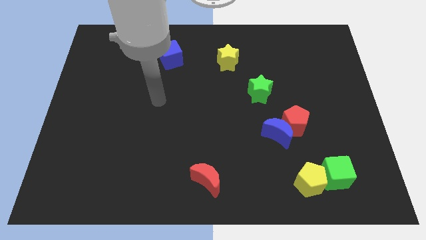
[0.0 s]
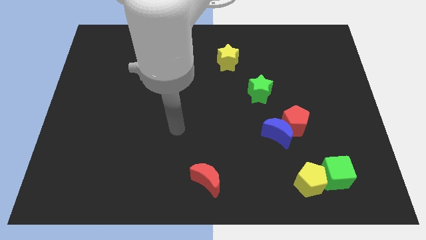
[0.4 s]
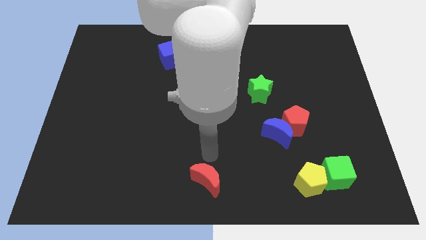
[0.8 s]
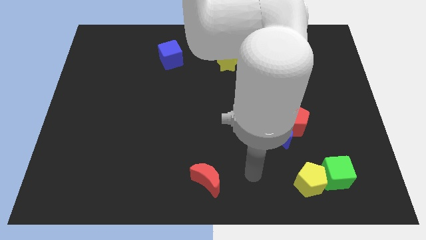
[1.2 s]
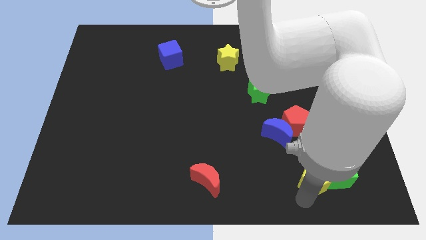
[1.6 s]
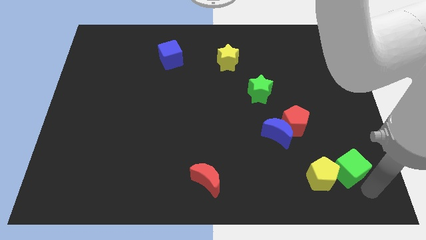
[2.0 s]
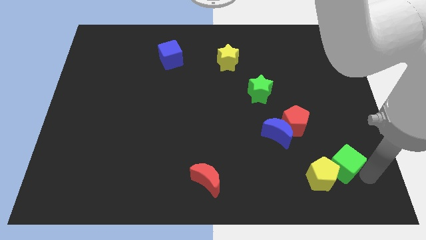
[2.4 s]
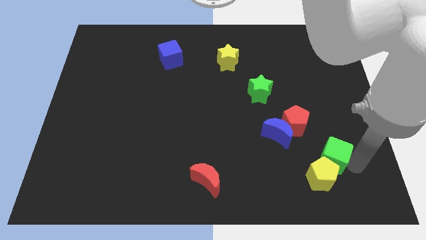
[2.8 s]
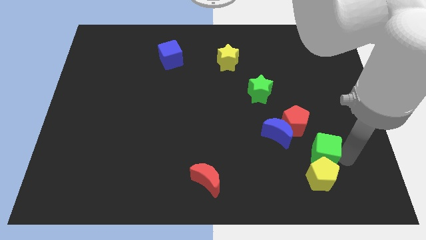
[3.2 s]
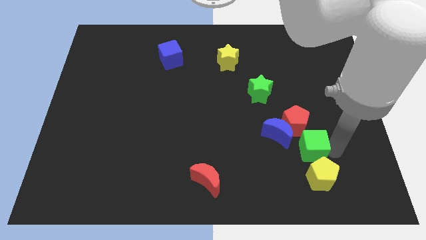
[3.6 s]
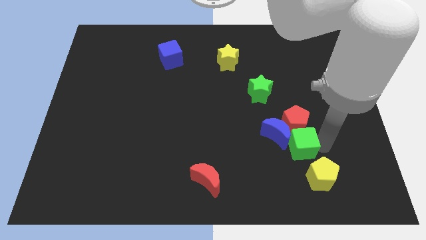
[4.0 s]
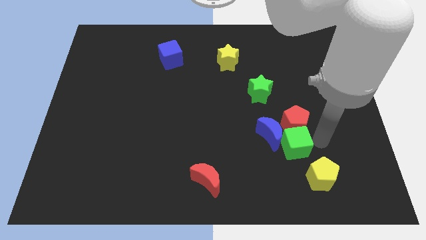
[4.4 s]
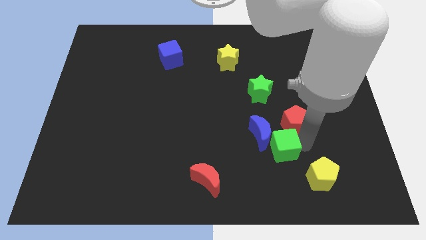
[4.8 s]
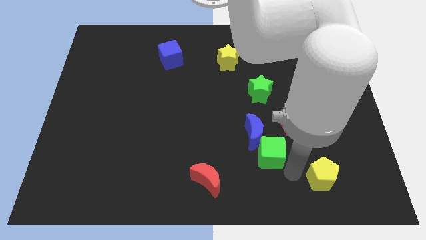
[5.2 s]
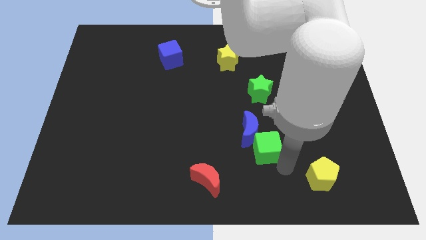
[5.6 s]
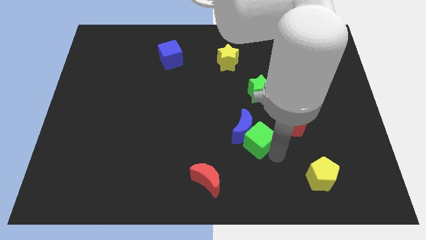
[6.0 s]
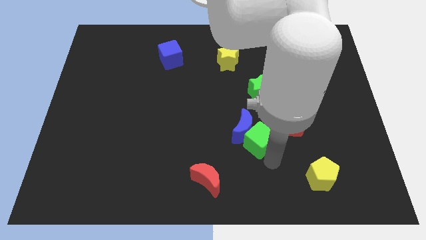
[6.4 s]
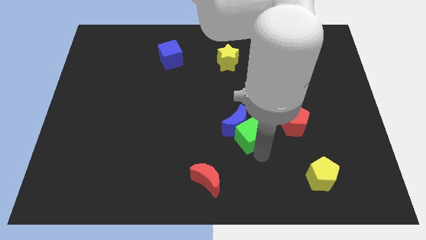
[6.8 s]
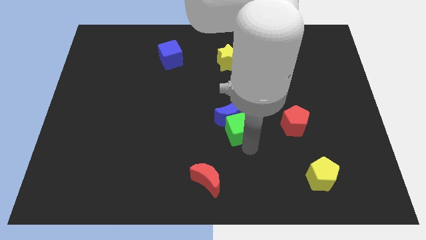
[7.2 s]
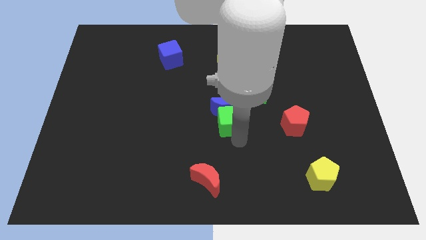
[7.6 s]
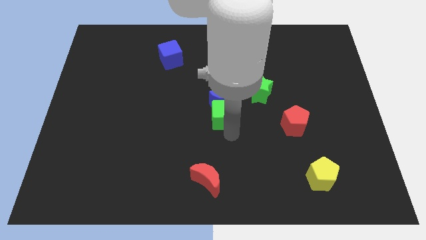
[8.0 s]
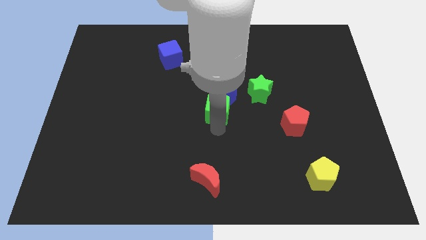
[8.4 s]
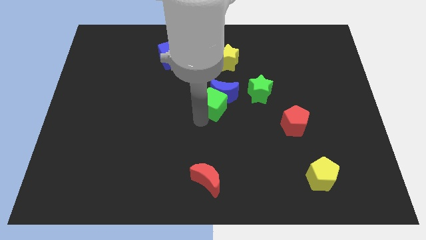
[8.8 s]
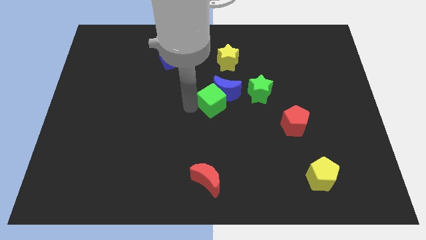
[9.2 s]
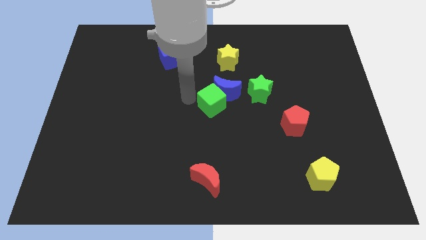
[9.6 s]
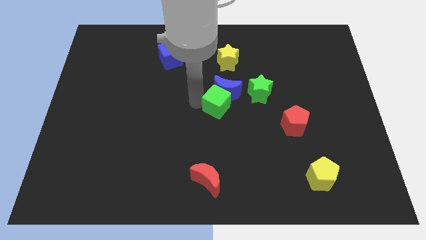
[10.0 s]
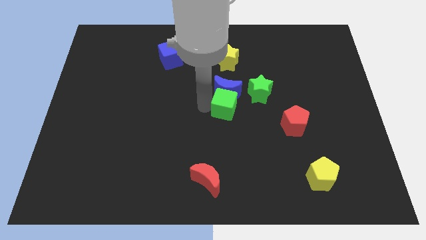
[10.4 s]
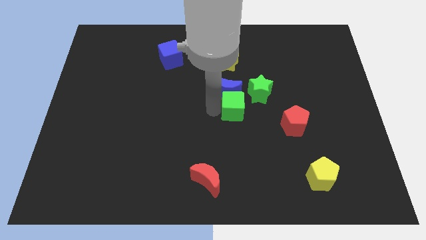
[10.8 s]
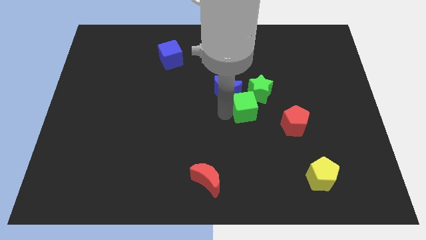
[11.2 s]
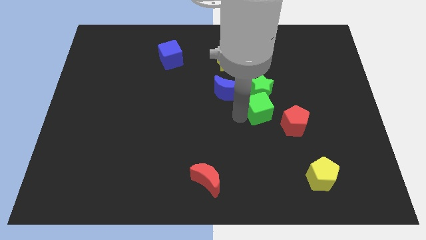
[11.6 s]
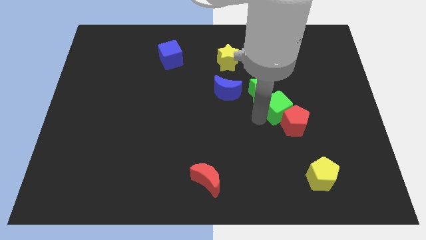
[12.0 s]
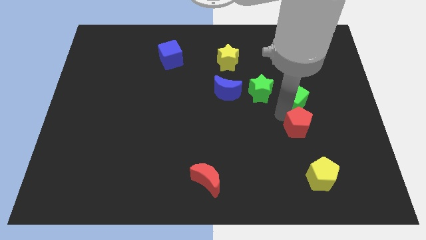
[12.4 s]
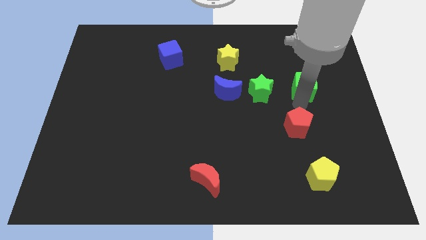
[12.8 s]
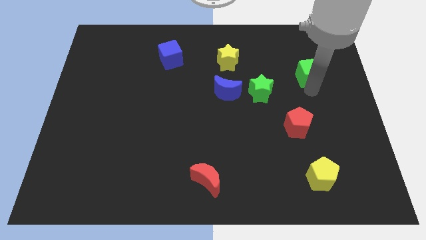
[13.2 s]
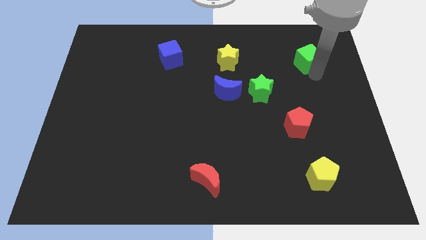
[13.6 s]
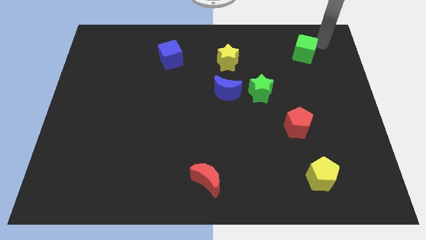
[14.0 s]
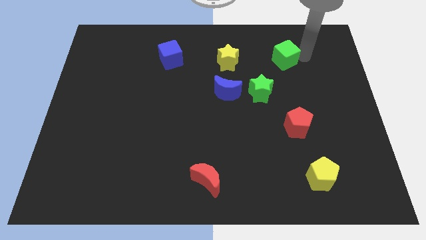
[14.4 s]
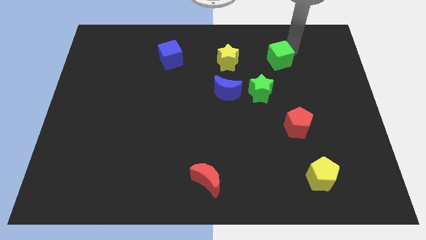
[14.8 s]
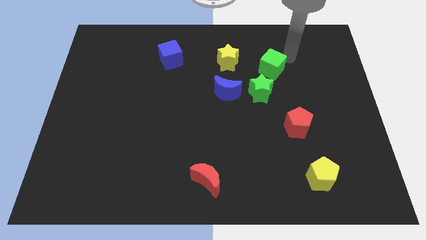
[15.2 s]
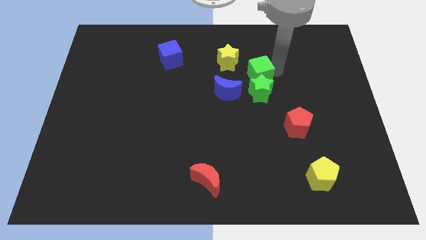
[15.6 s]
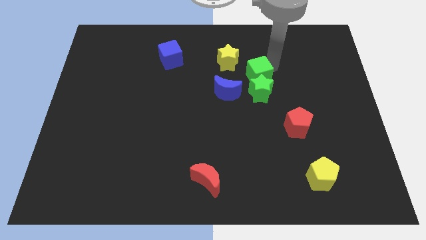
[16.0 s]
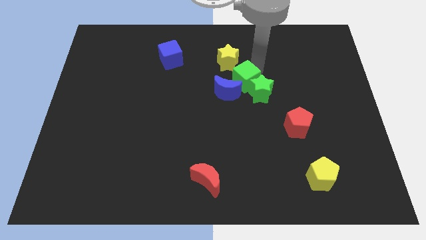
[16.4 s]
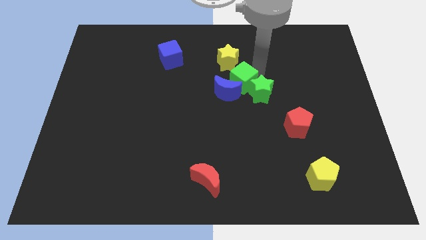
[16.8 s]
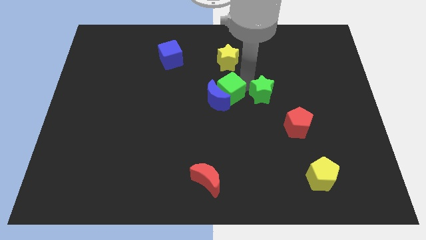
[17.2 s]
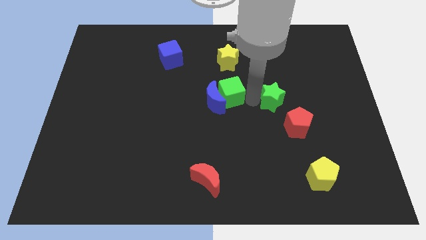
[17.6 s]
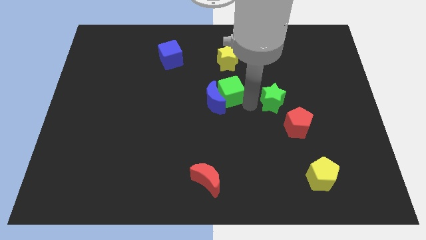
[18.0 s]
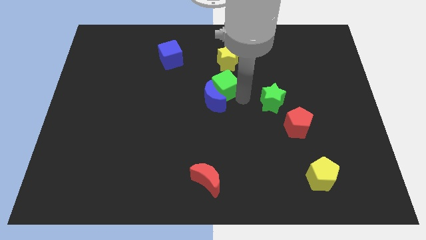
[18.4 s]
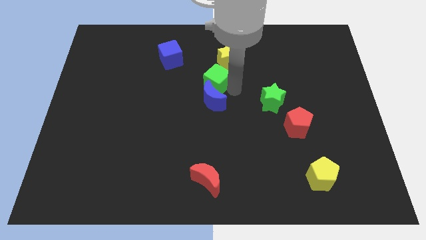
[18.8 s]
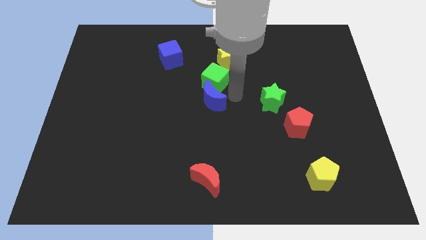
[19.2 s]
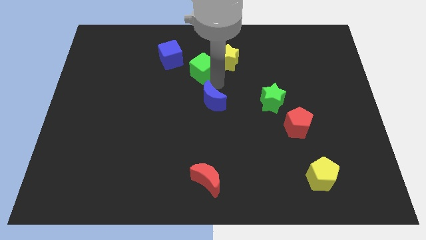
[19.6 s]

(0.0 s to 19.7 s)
put the green cube left of the yellow star

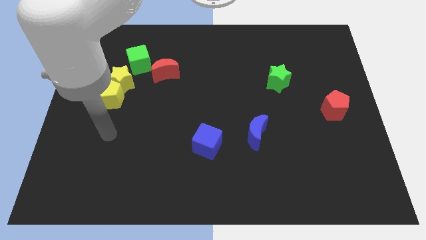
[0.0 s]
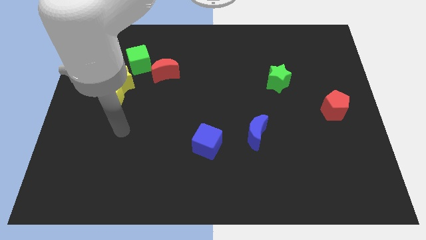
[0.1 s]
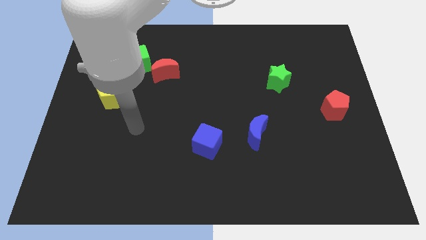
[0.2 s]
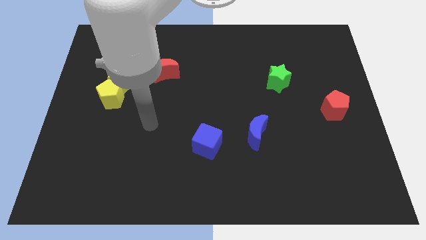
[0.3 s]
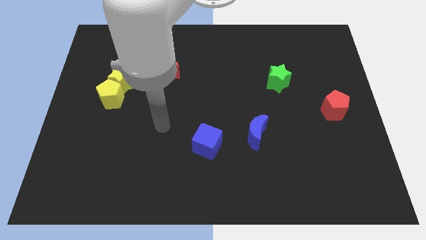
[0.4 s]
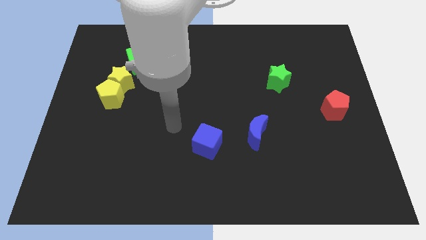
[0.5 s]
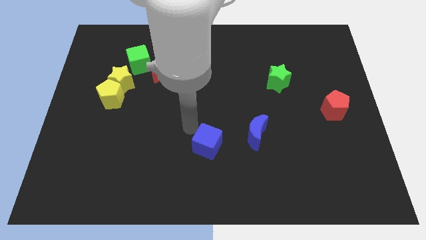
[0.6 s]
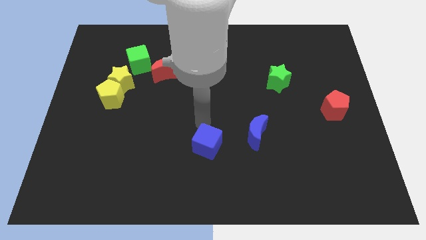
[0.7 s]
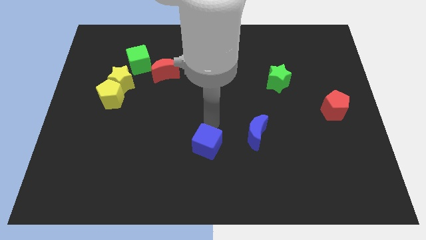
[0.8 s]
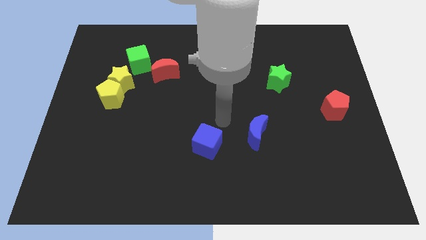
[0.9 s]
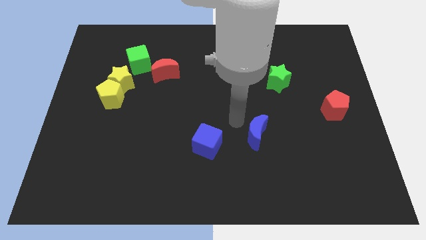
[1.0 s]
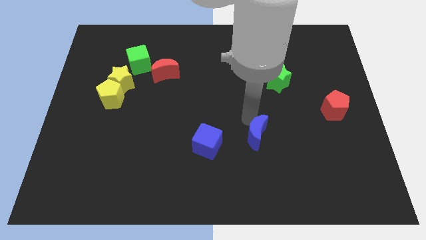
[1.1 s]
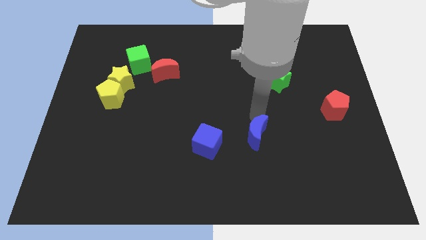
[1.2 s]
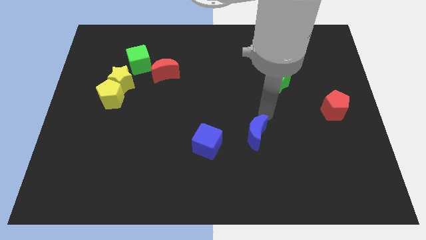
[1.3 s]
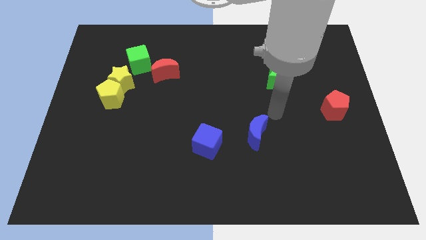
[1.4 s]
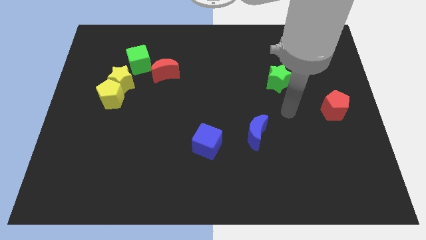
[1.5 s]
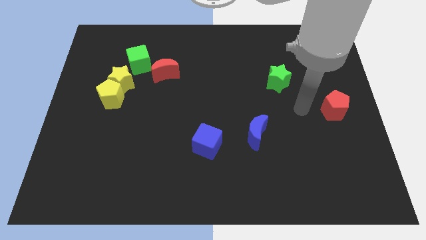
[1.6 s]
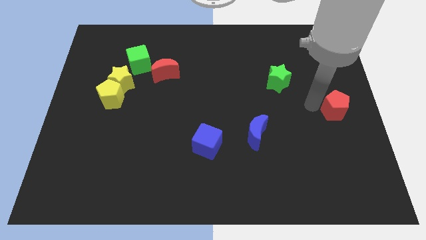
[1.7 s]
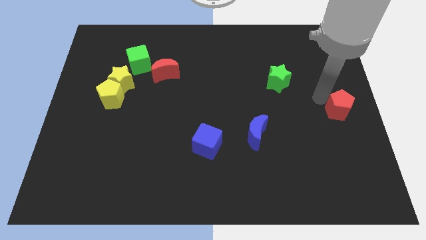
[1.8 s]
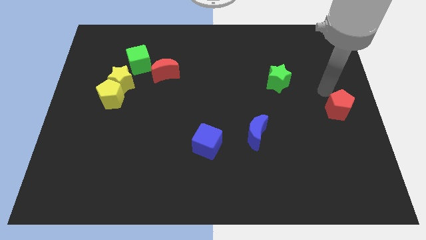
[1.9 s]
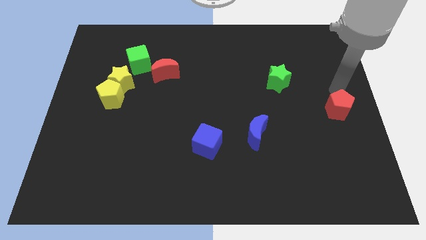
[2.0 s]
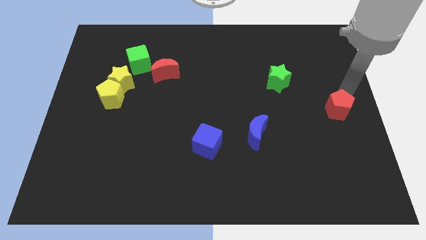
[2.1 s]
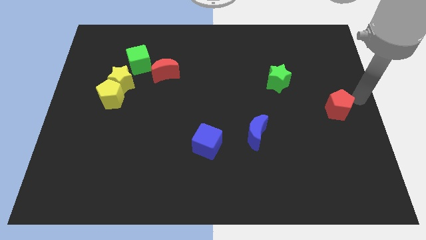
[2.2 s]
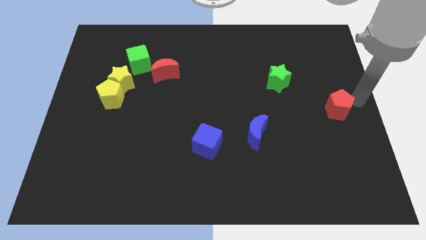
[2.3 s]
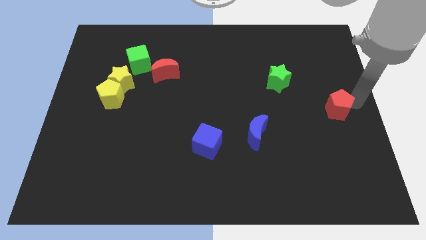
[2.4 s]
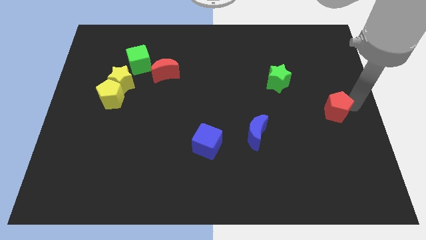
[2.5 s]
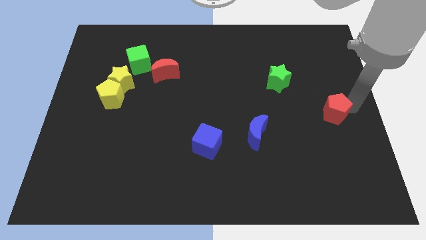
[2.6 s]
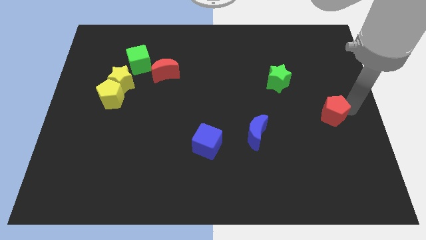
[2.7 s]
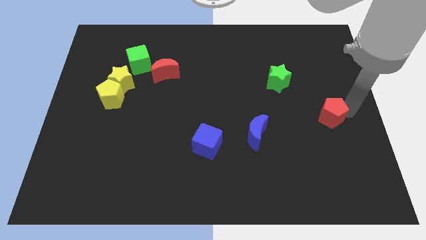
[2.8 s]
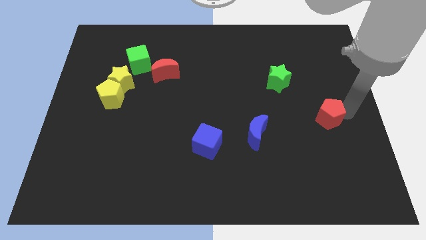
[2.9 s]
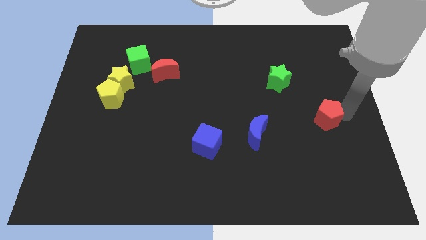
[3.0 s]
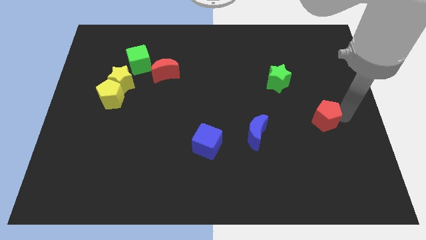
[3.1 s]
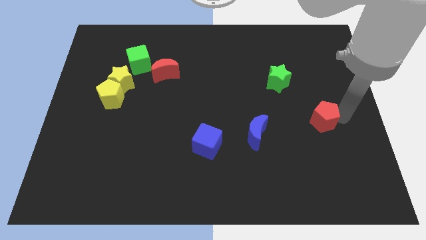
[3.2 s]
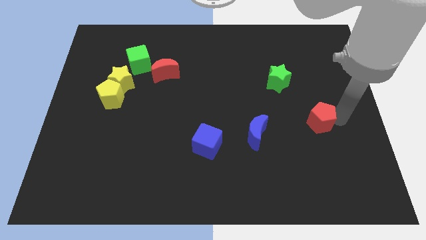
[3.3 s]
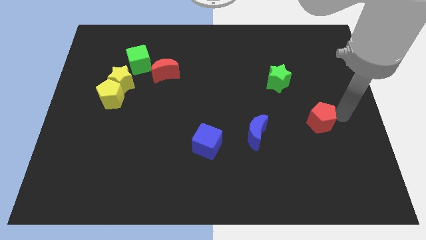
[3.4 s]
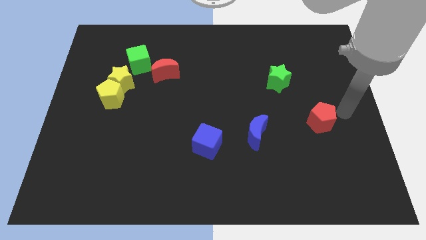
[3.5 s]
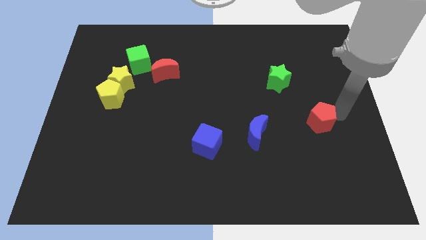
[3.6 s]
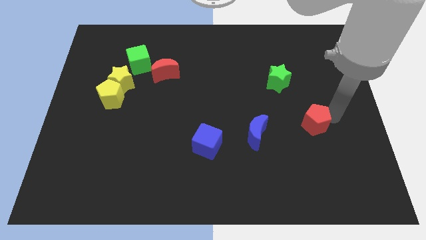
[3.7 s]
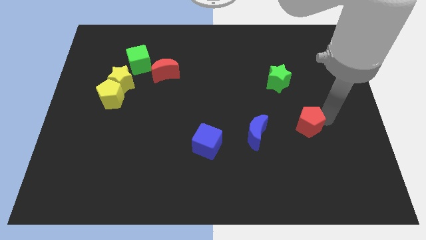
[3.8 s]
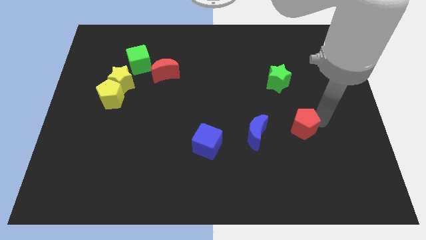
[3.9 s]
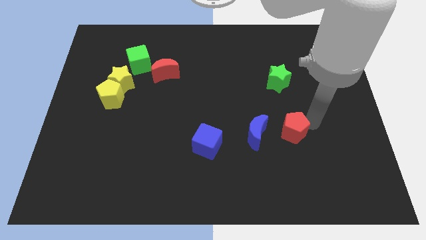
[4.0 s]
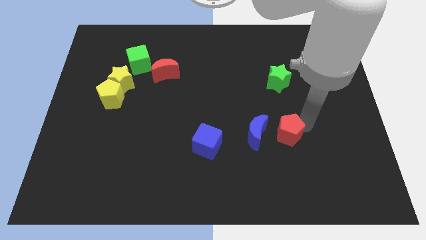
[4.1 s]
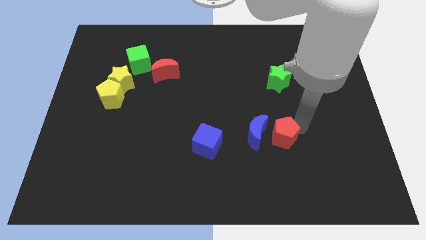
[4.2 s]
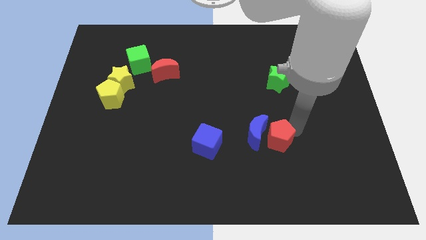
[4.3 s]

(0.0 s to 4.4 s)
put the red pentagon to the right of the blue cube
